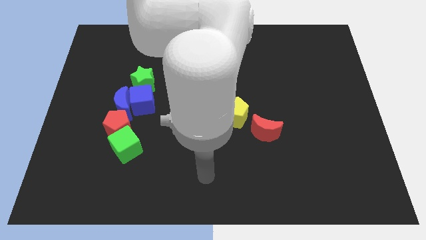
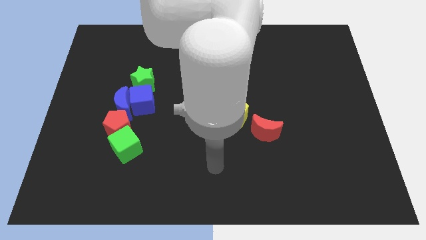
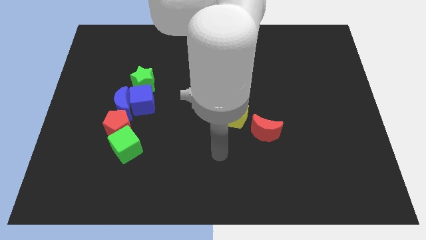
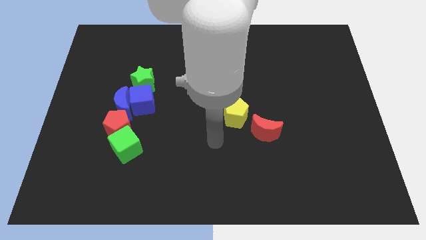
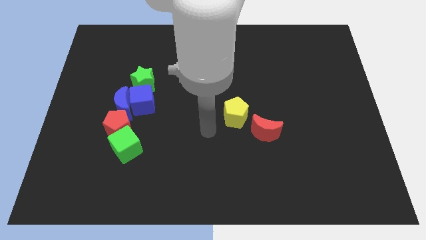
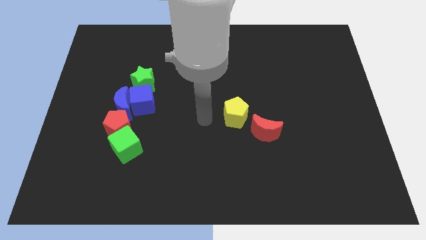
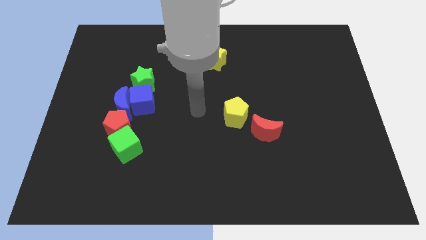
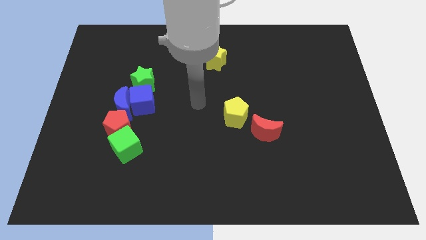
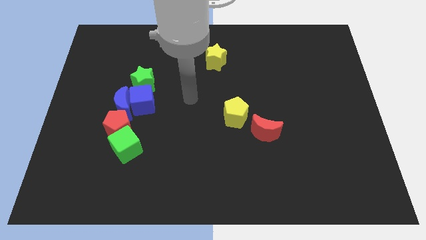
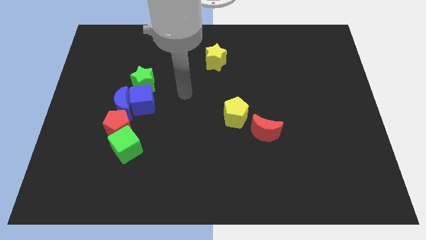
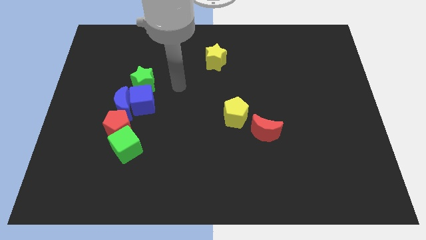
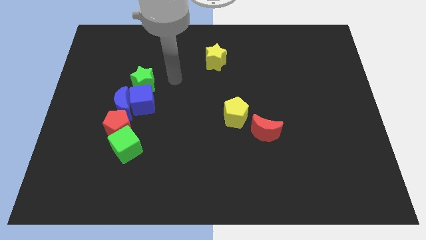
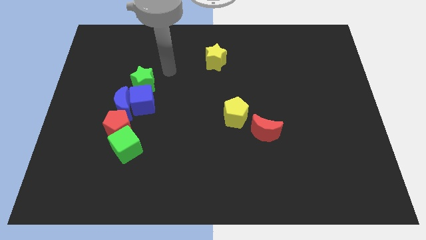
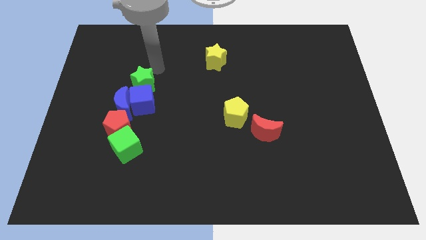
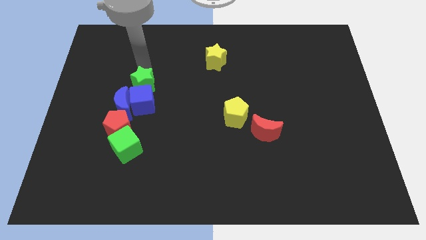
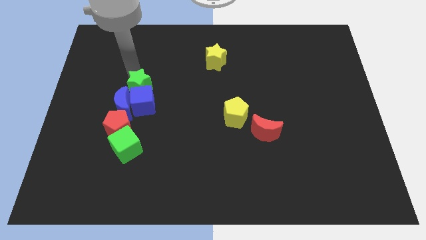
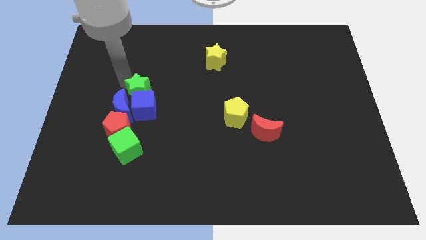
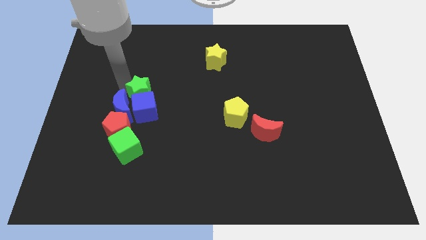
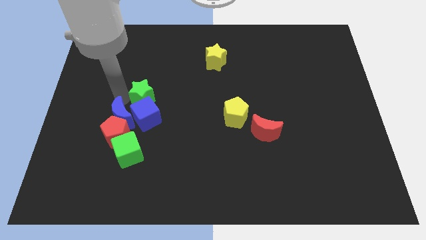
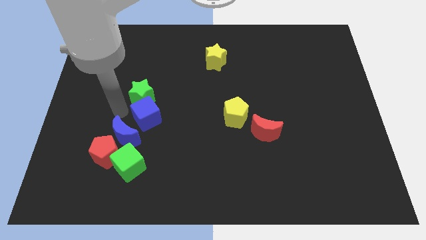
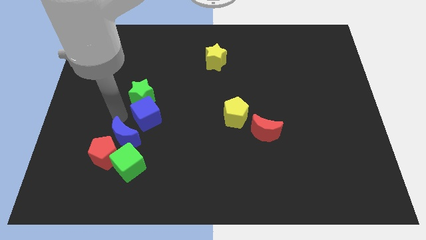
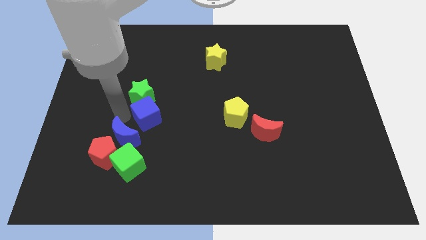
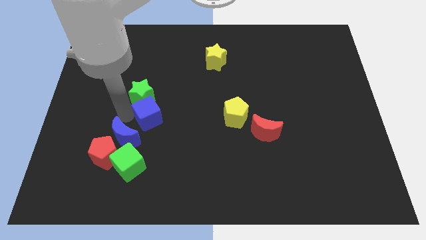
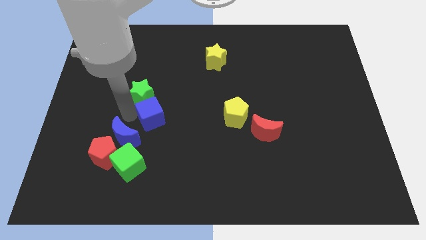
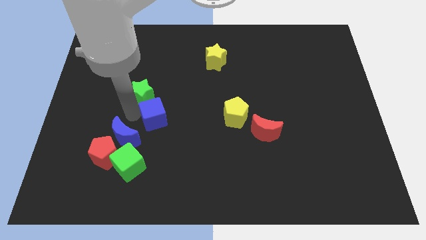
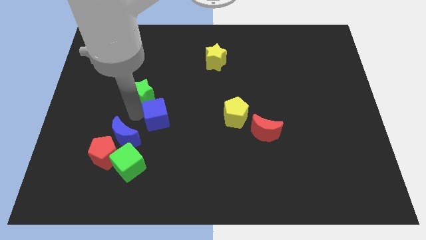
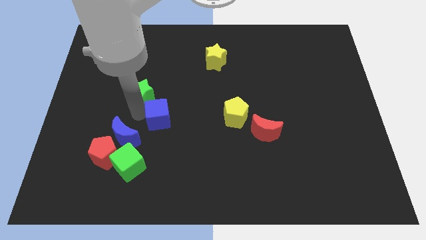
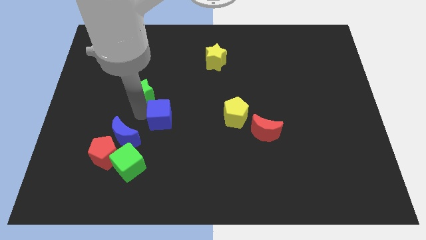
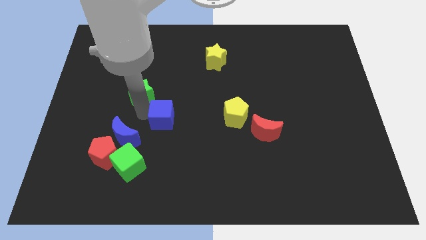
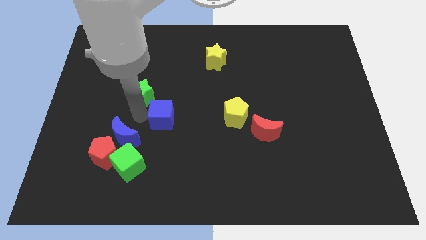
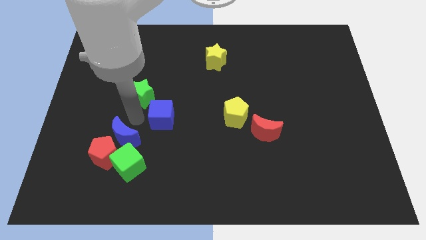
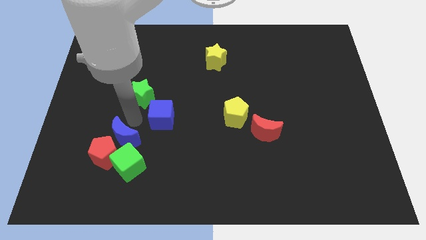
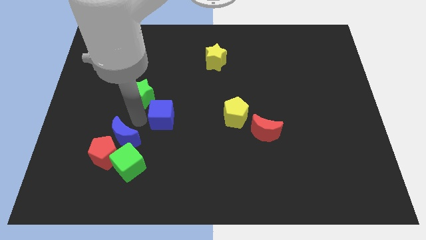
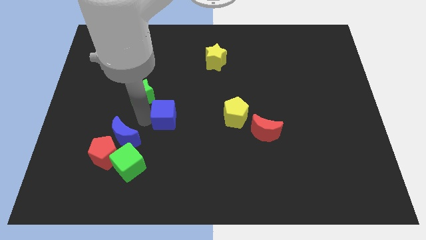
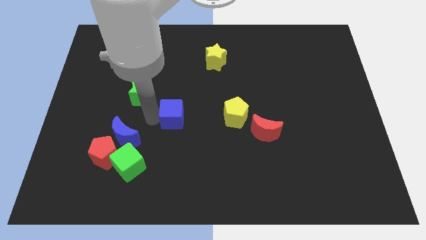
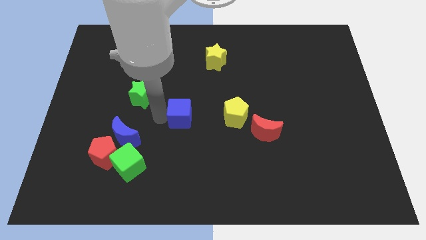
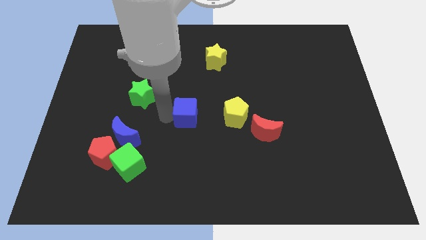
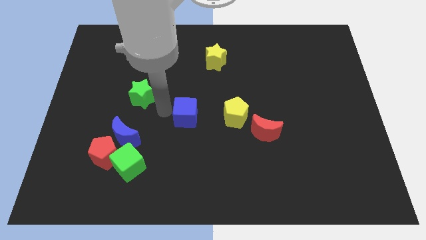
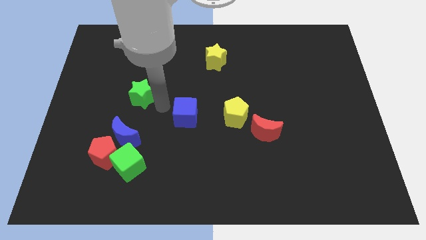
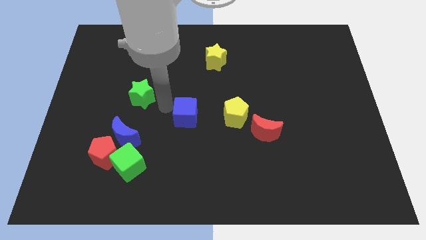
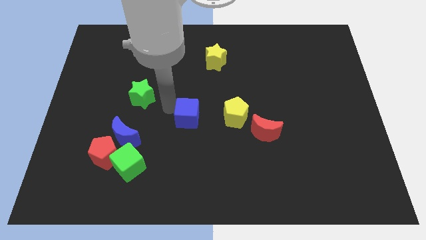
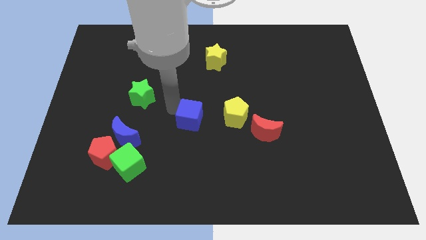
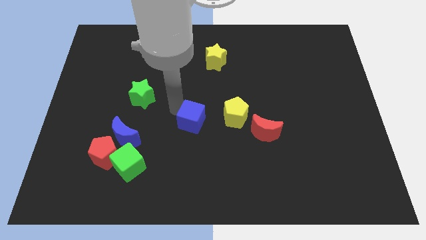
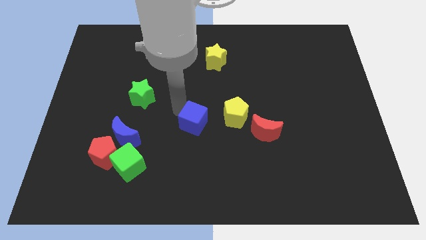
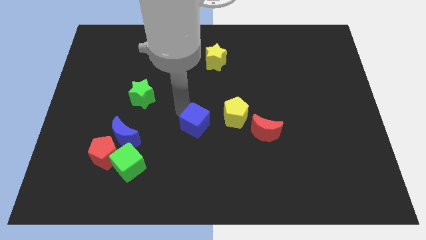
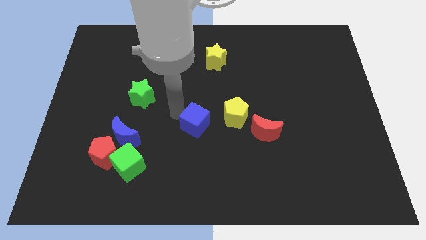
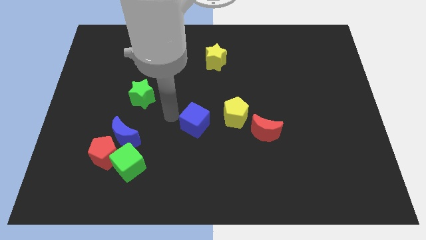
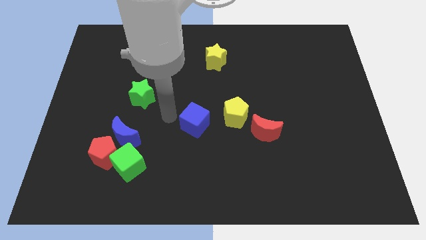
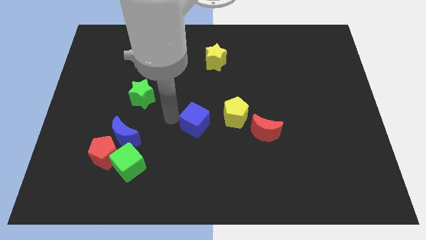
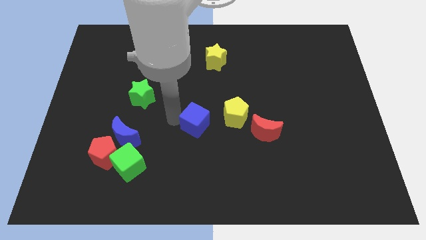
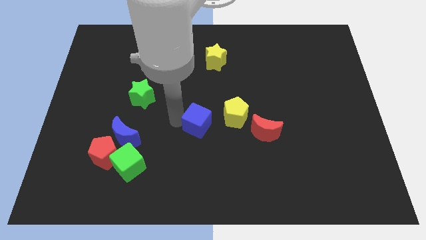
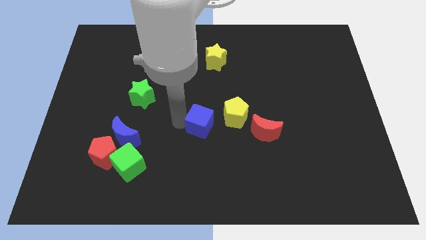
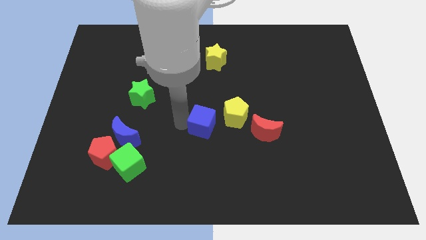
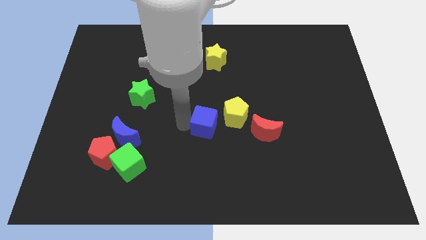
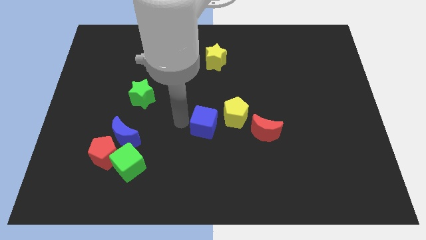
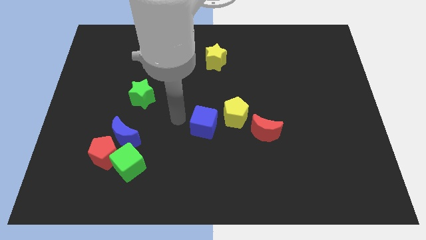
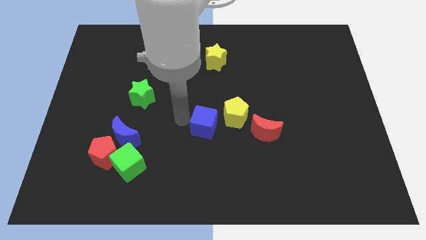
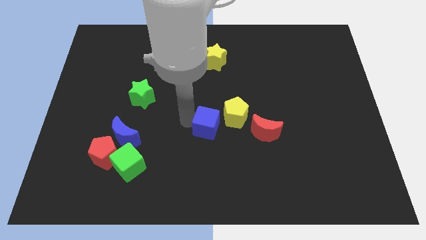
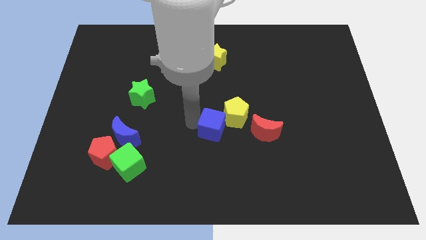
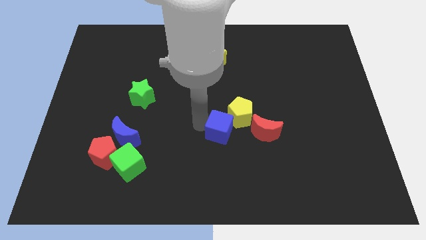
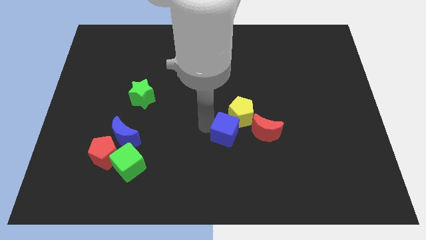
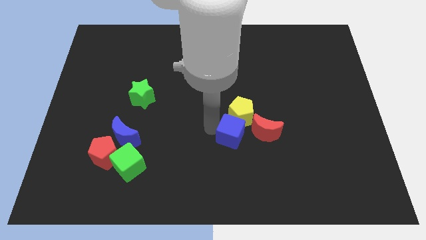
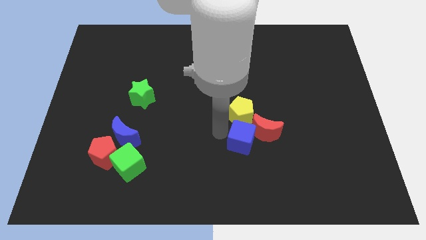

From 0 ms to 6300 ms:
move the blue cube to the red moon

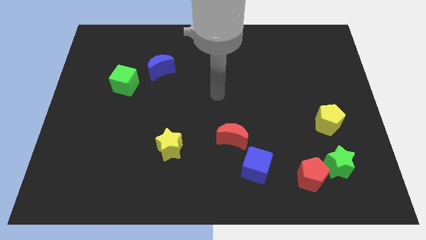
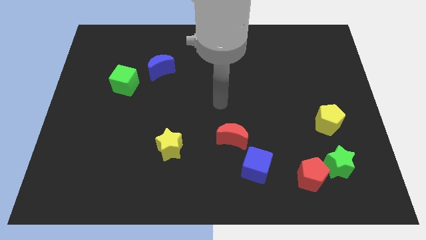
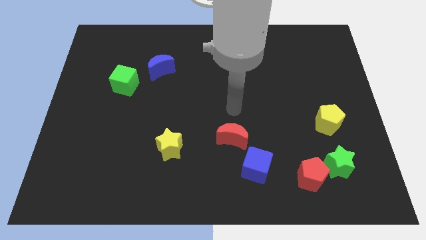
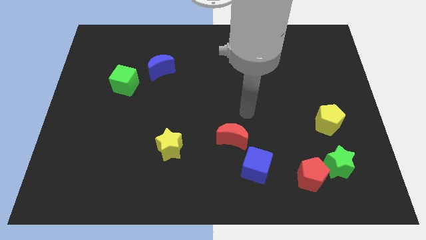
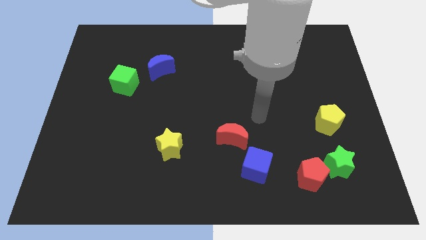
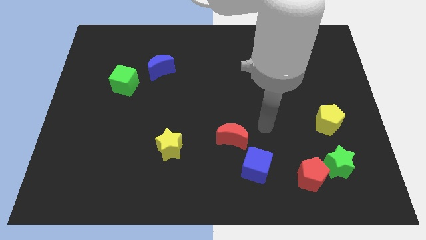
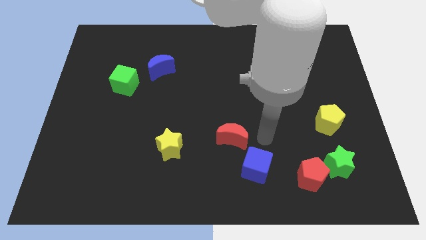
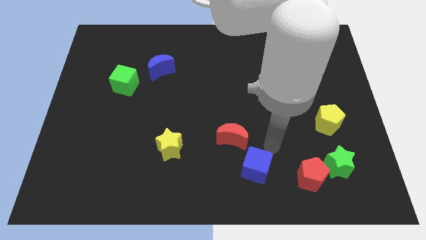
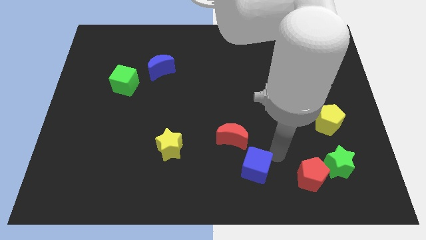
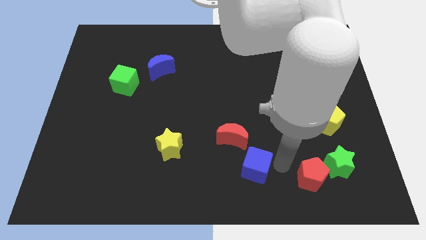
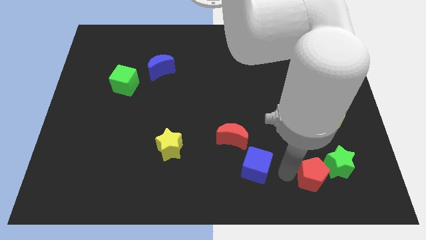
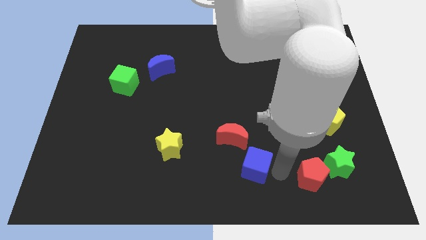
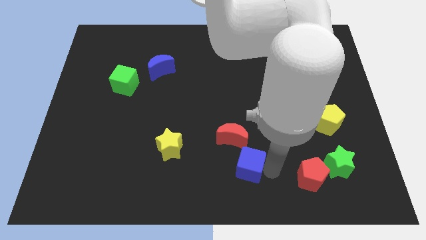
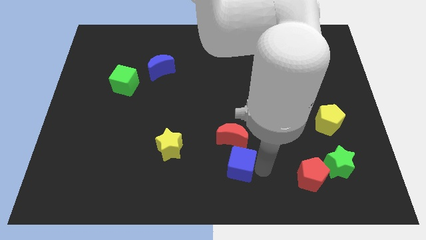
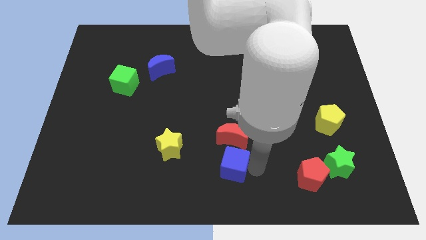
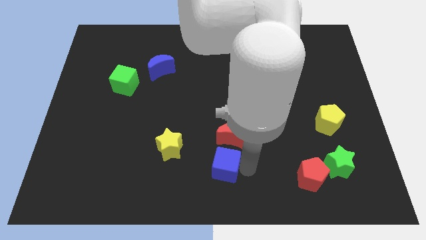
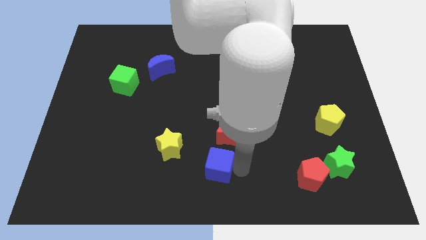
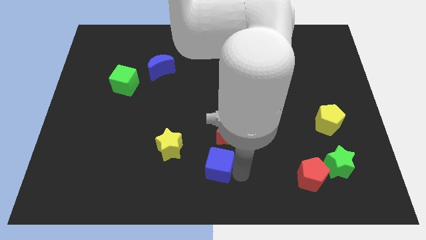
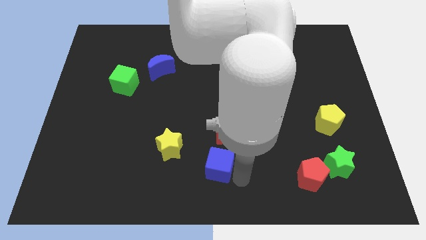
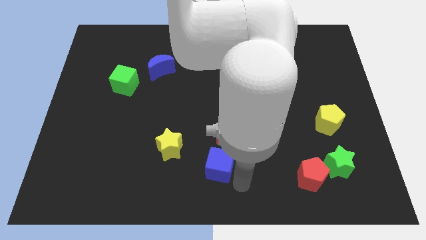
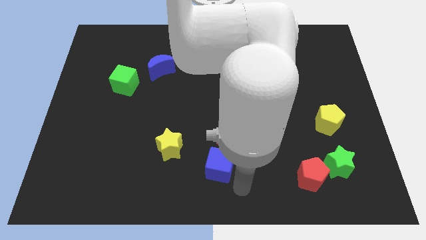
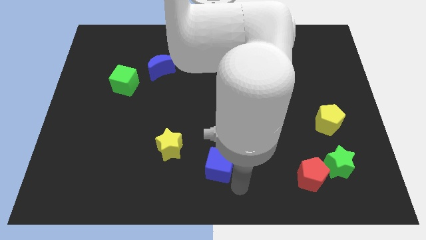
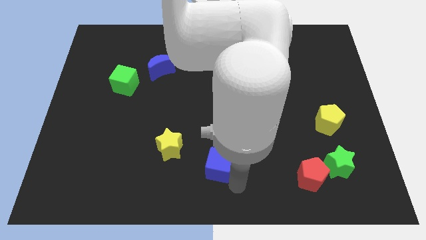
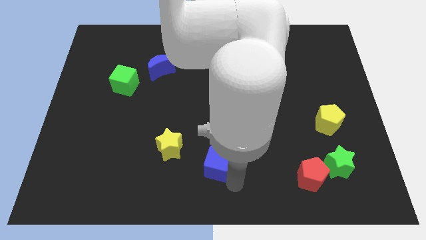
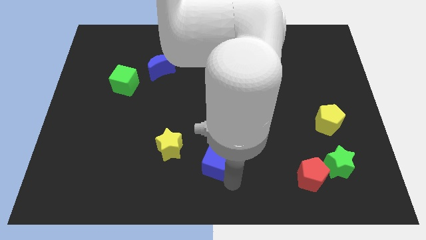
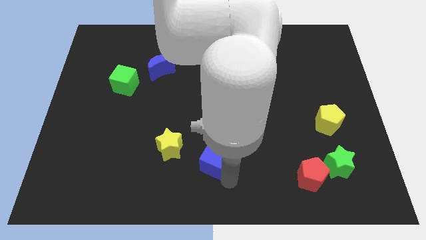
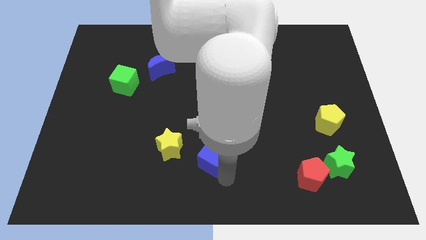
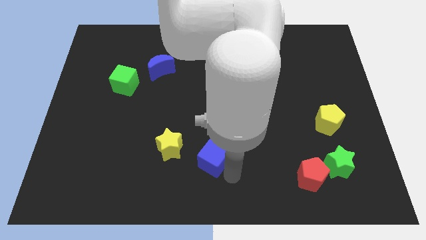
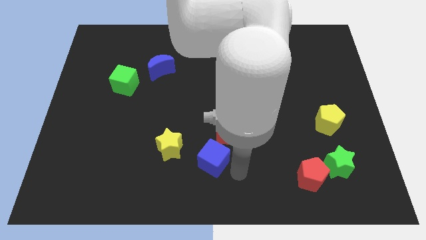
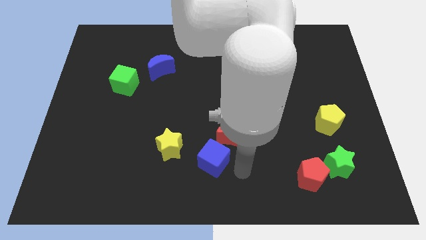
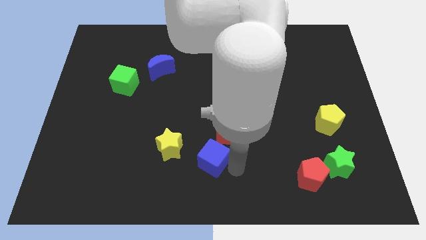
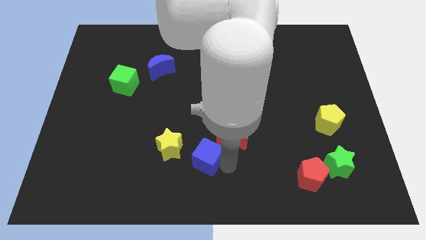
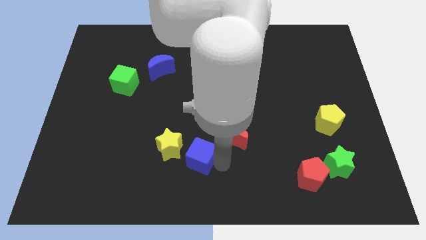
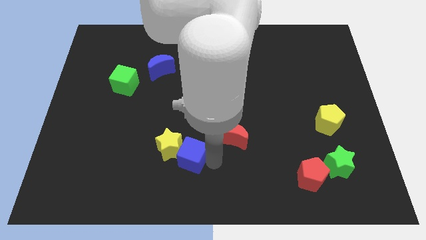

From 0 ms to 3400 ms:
push the blue cube next to the yellow star
